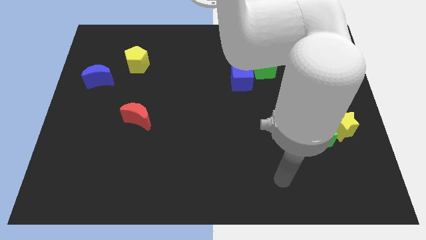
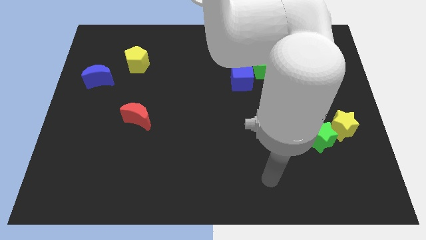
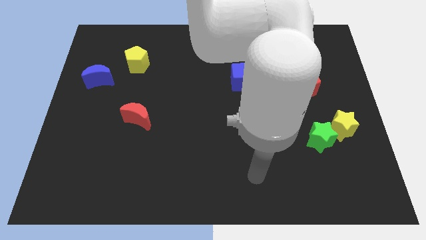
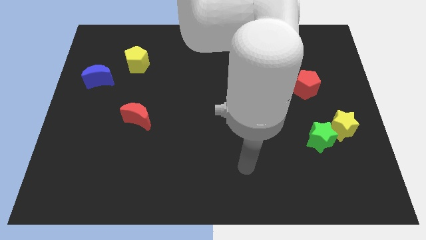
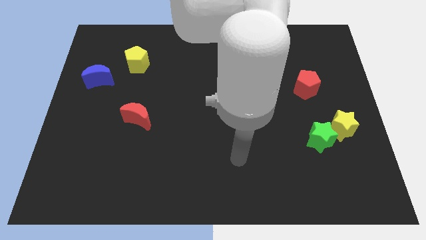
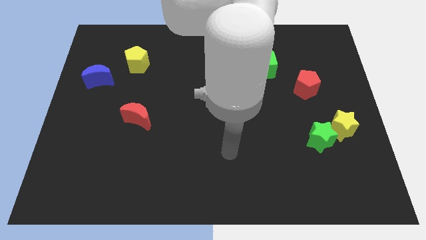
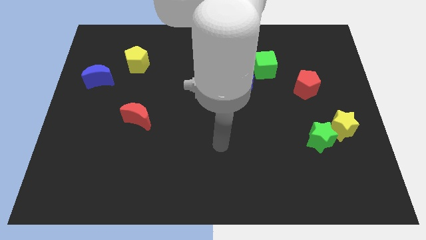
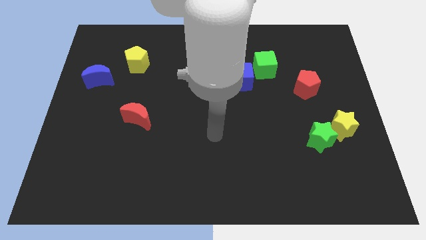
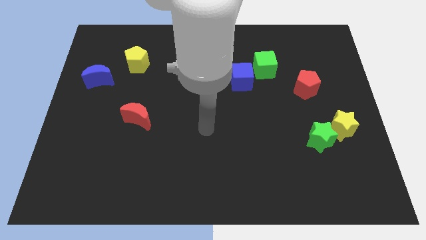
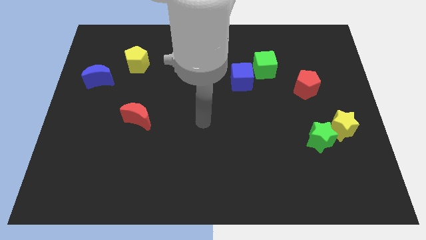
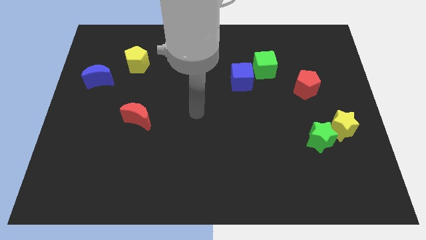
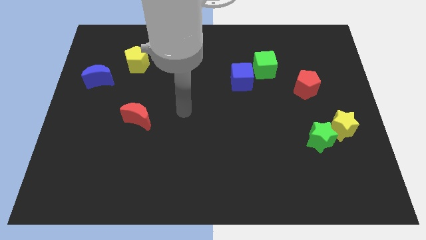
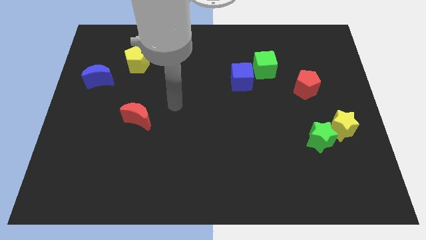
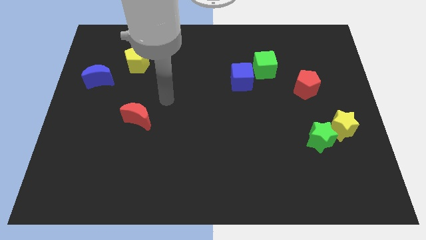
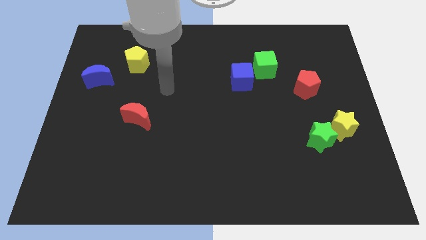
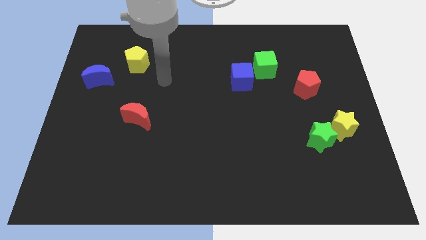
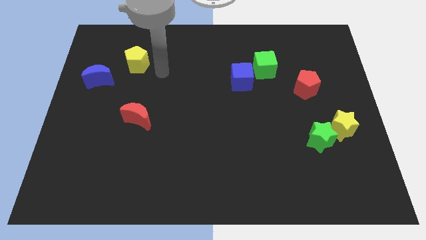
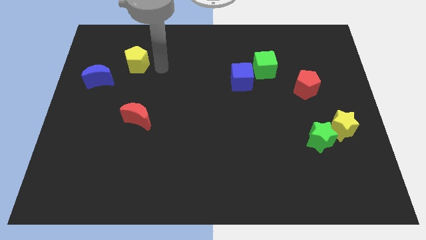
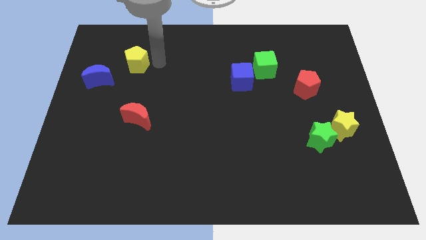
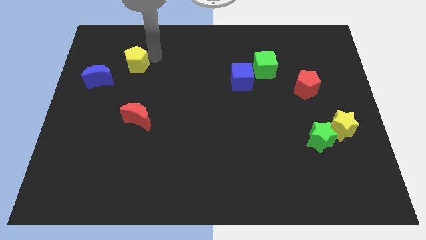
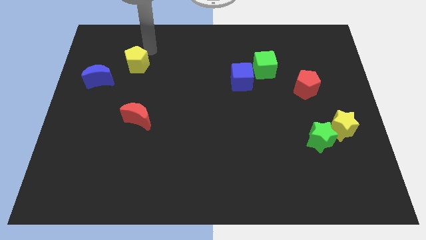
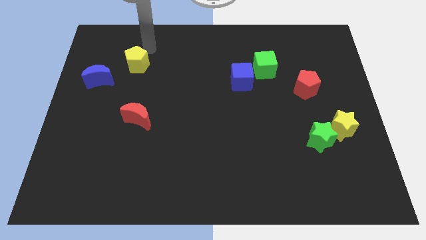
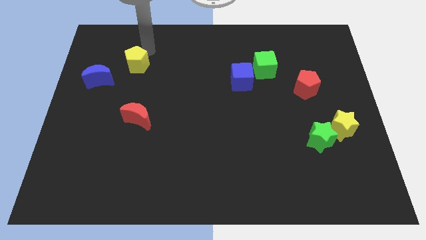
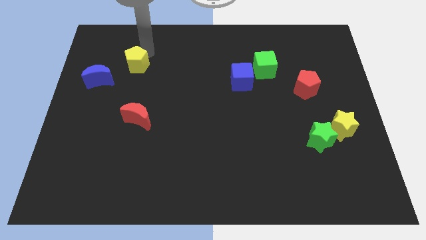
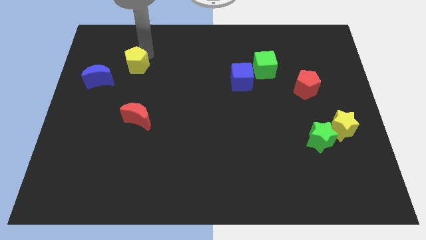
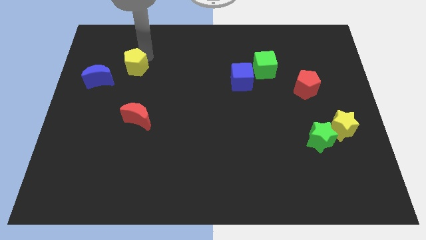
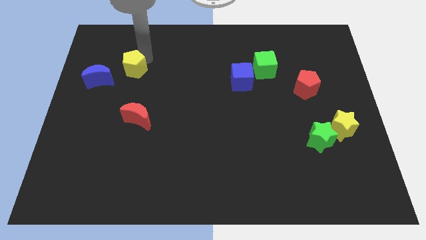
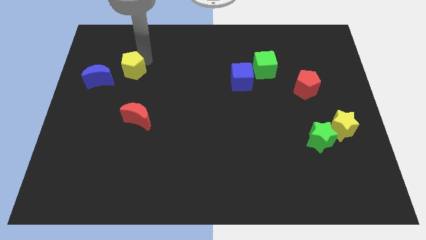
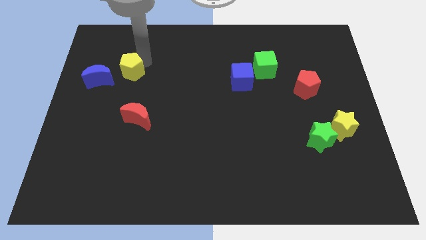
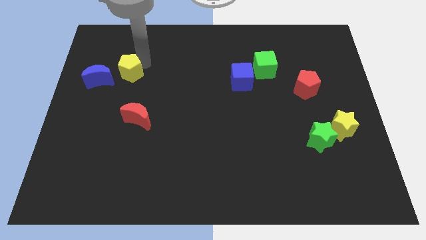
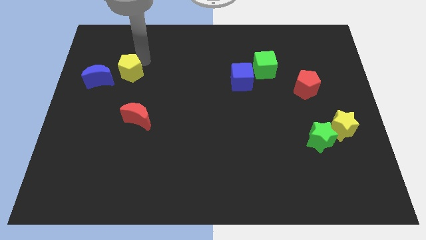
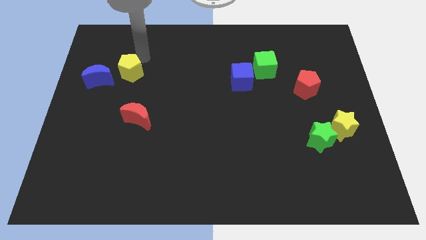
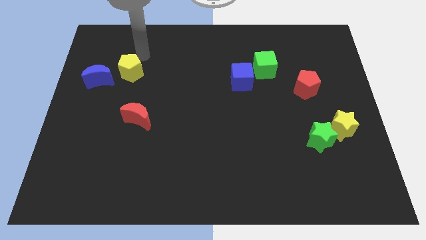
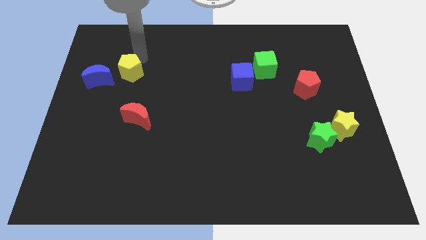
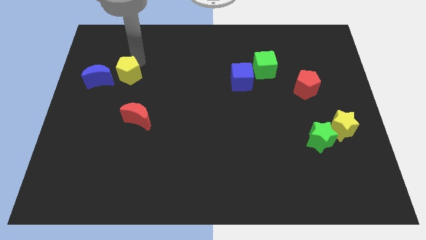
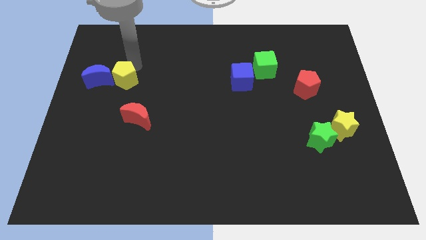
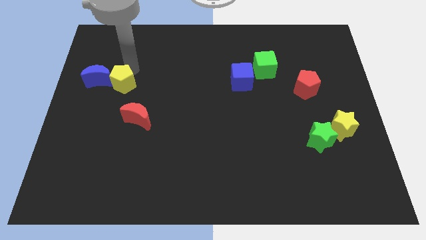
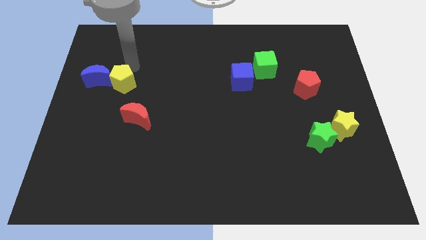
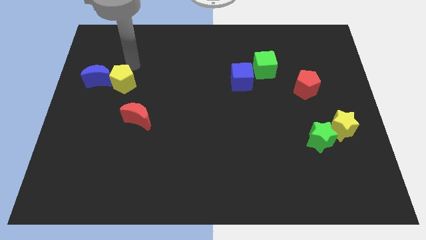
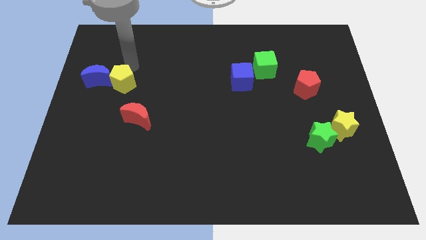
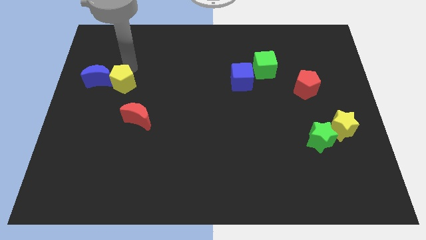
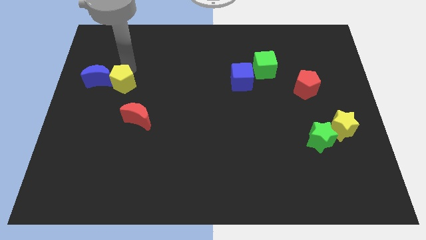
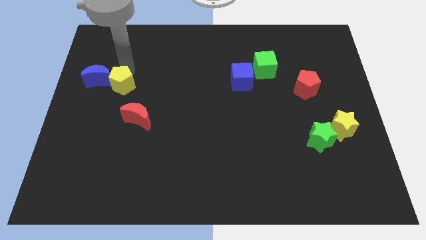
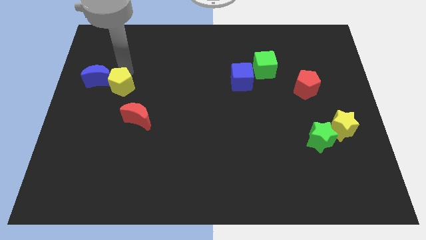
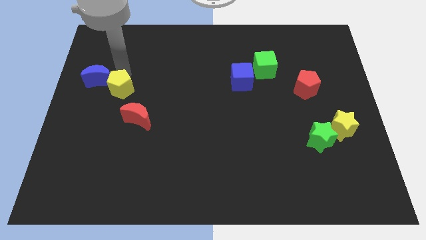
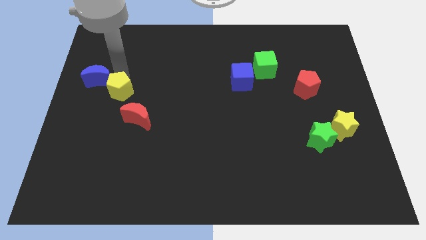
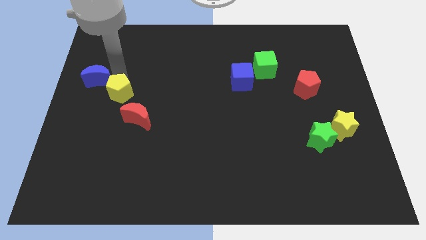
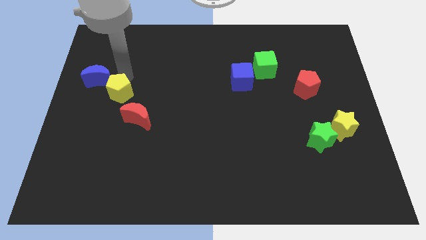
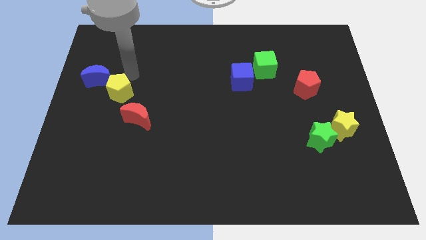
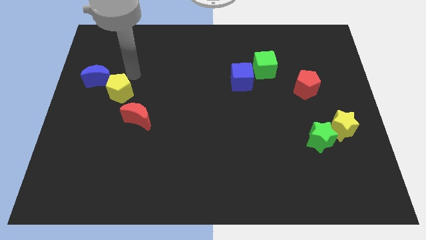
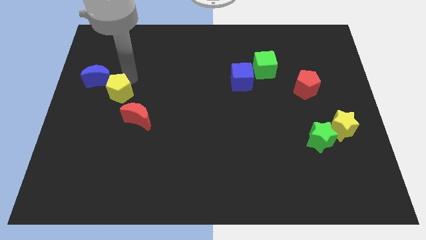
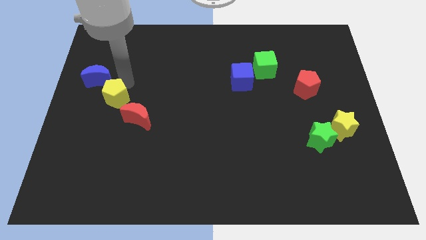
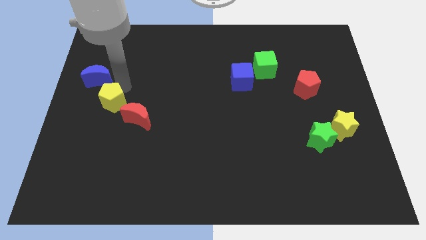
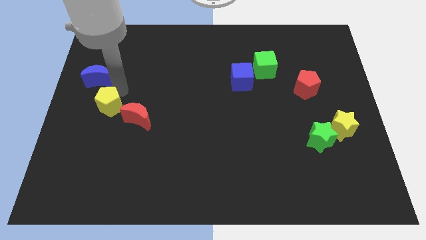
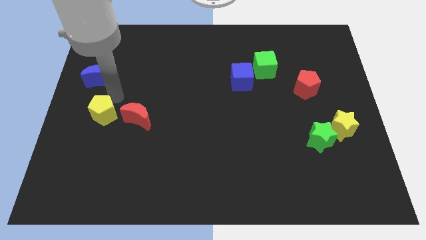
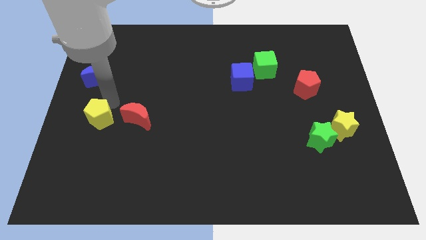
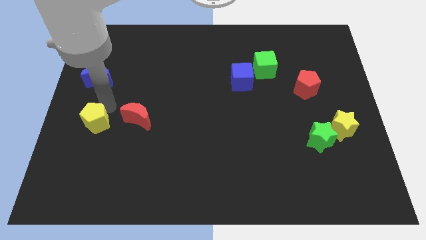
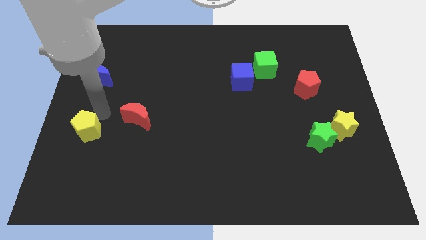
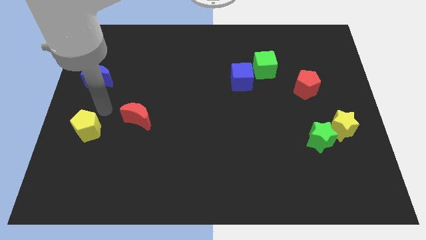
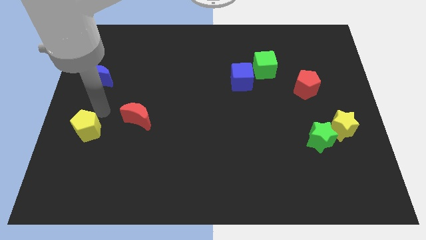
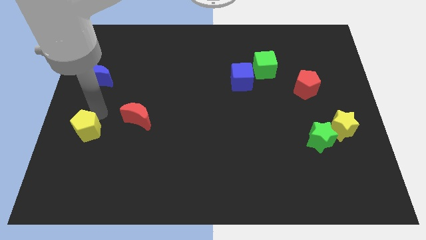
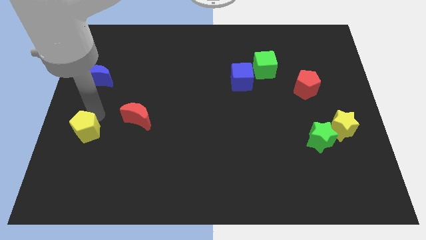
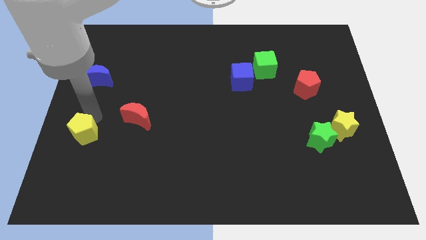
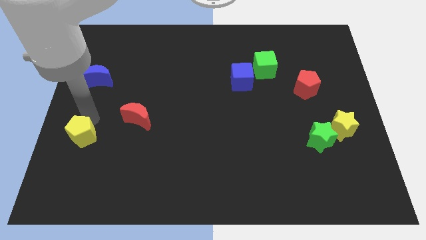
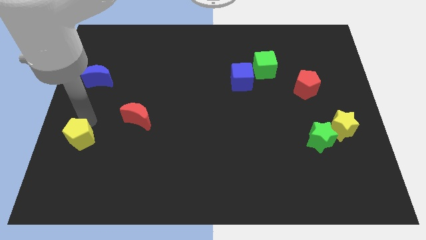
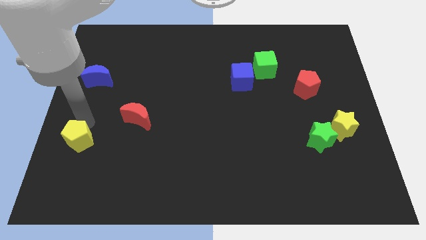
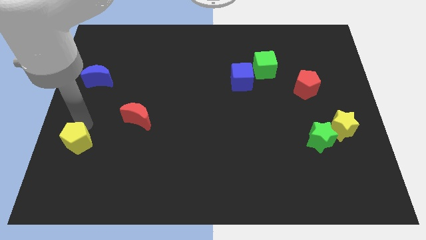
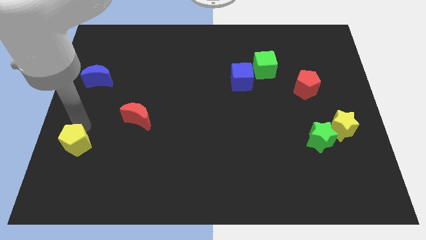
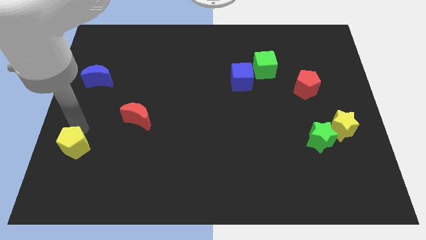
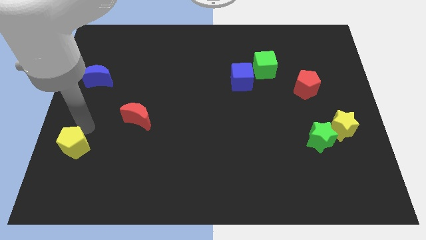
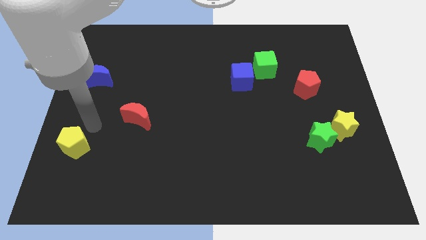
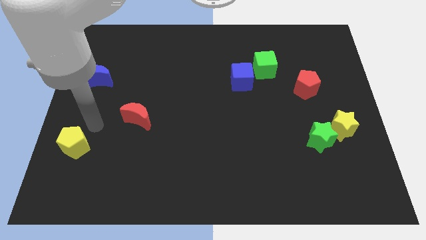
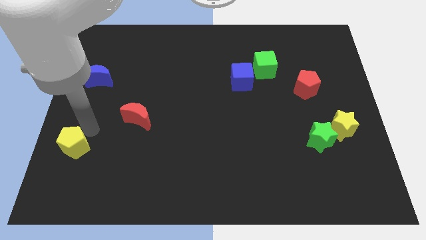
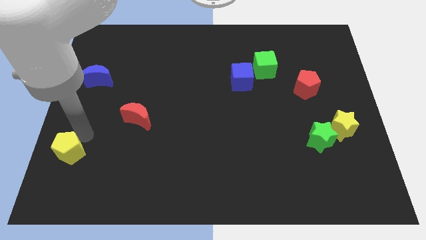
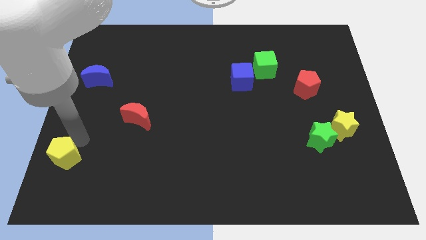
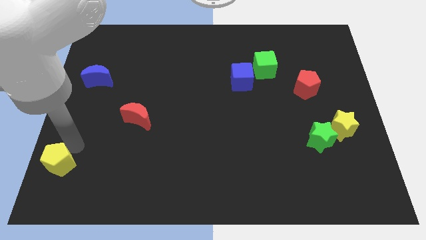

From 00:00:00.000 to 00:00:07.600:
move the yellow pentagon to the bottom left

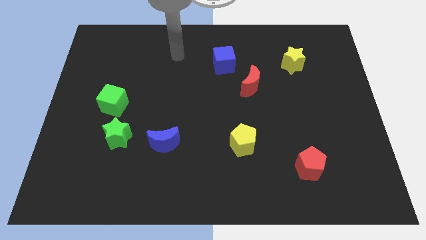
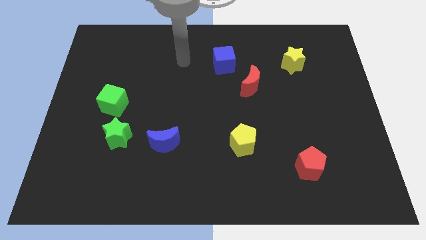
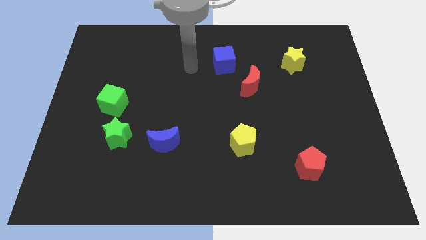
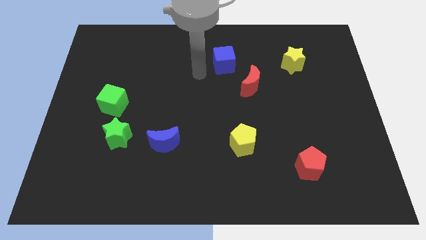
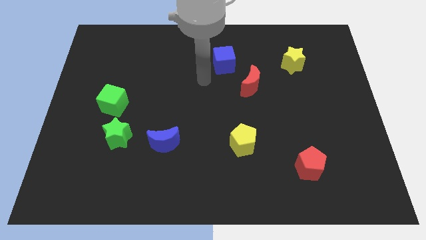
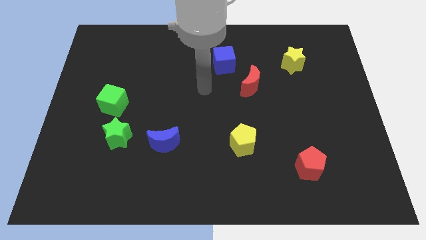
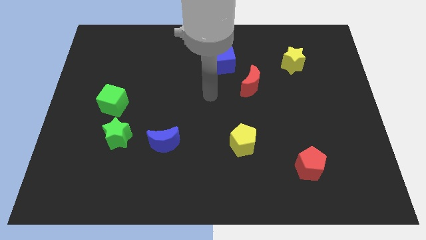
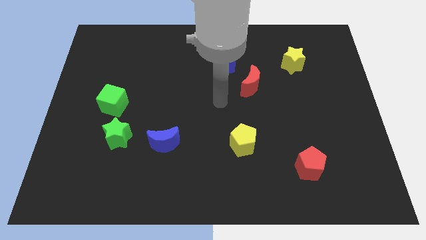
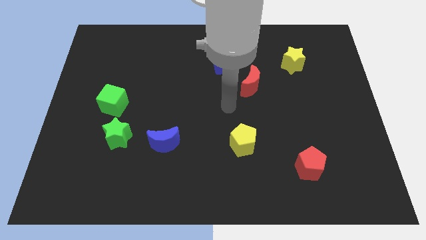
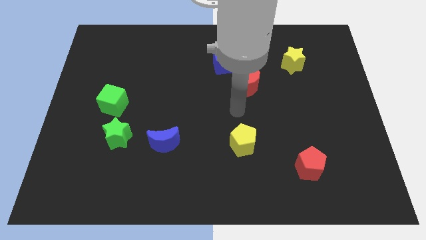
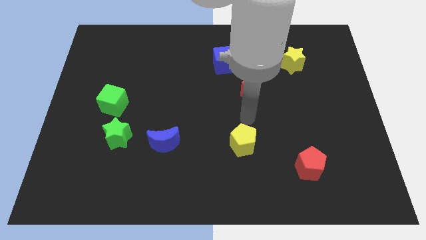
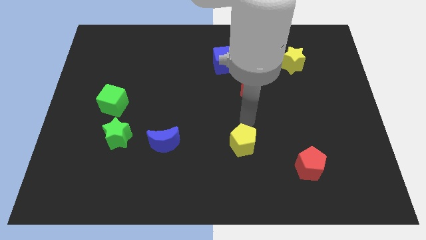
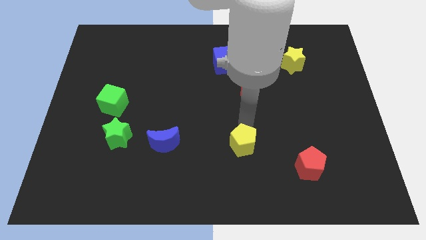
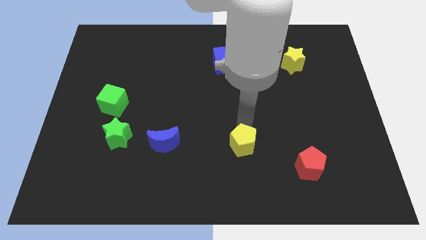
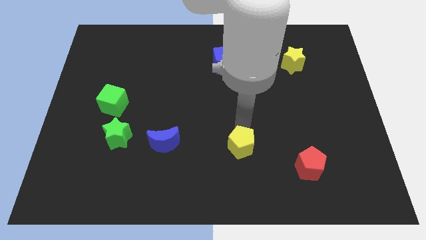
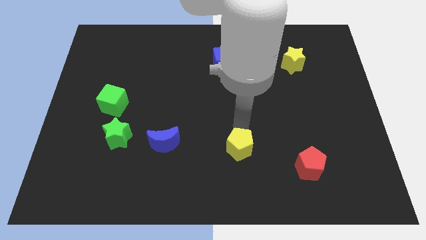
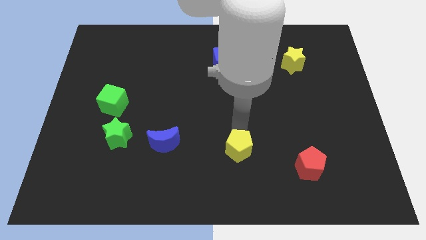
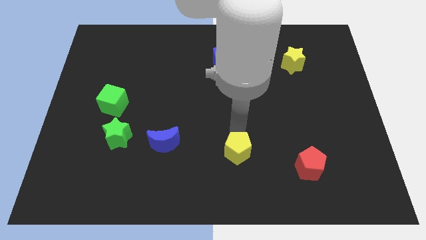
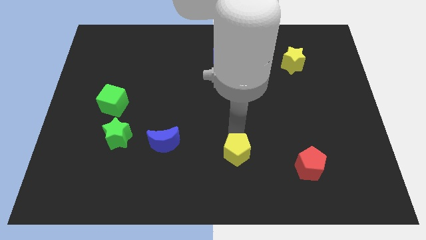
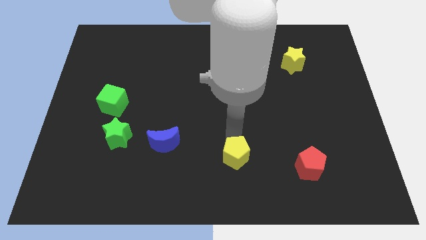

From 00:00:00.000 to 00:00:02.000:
slide the yellow pentagon to the bottom side
